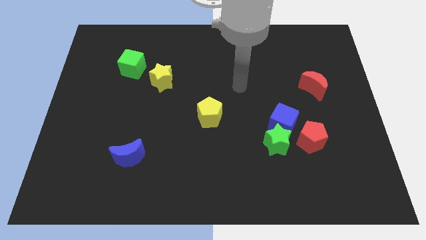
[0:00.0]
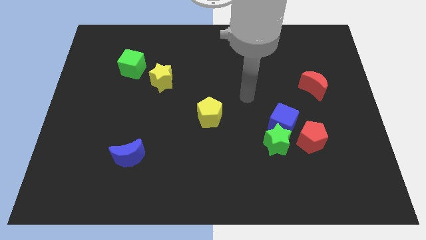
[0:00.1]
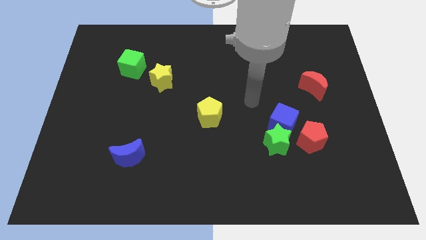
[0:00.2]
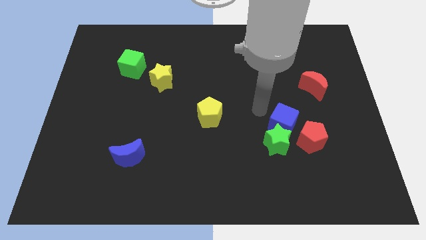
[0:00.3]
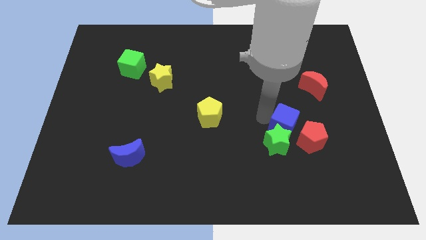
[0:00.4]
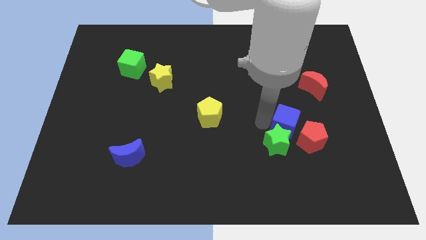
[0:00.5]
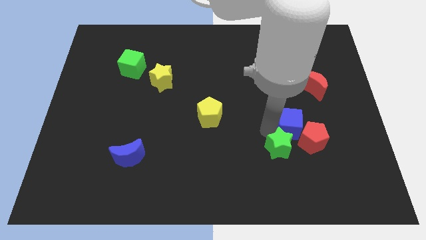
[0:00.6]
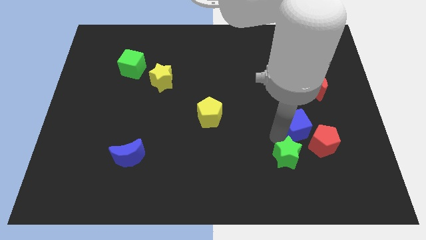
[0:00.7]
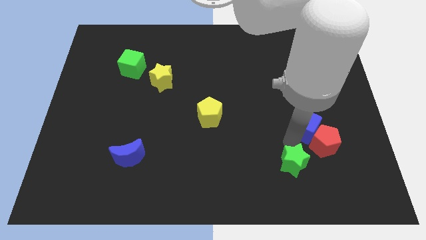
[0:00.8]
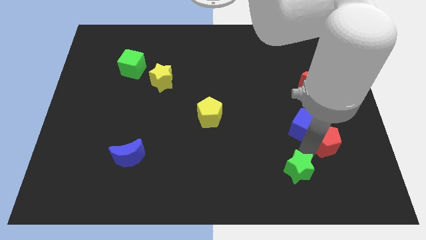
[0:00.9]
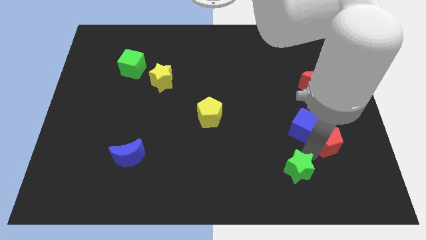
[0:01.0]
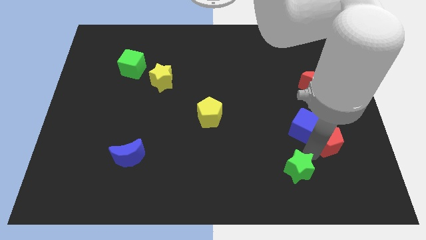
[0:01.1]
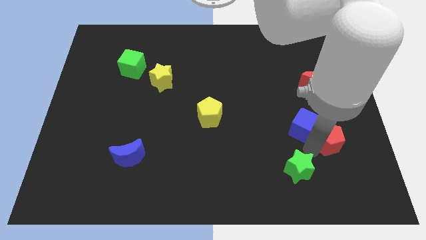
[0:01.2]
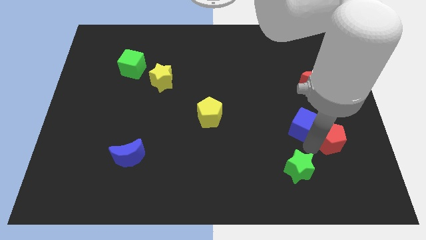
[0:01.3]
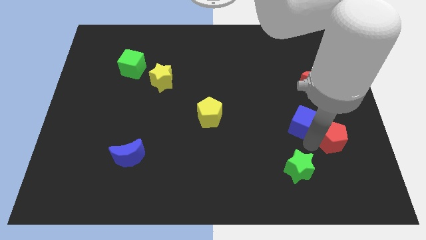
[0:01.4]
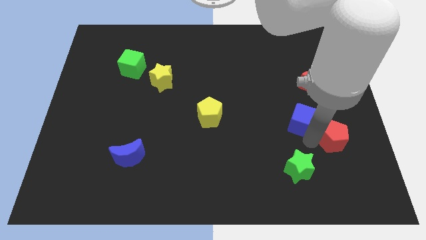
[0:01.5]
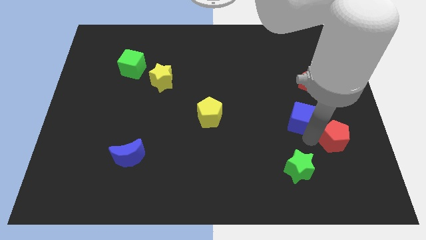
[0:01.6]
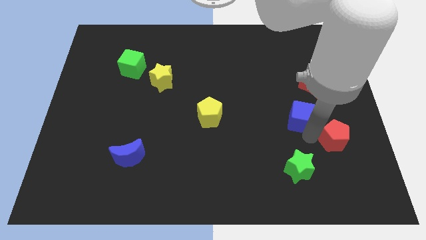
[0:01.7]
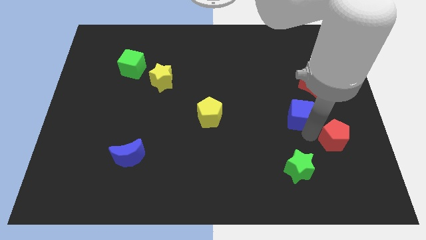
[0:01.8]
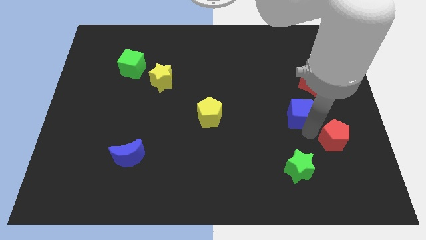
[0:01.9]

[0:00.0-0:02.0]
separate the blue cube from the green star and red pentagon

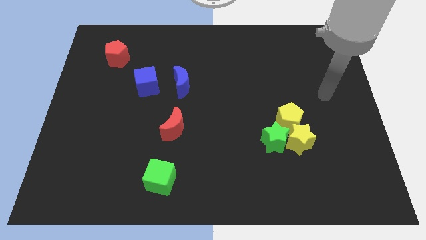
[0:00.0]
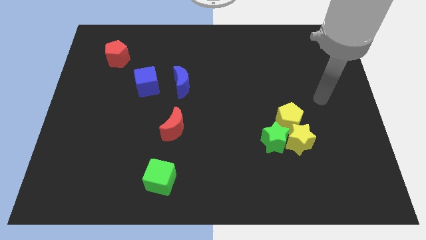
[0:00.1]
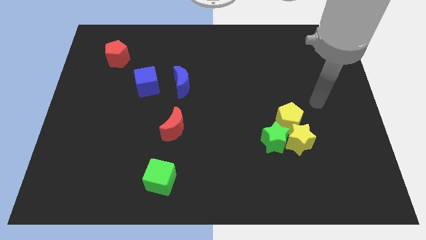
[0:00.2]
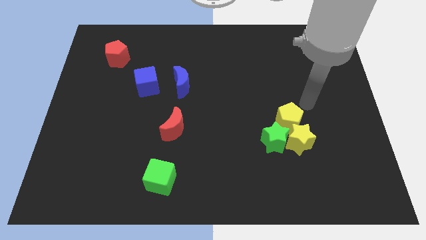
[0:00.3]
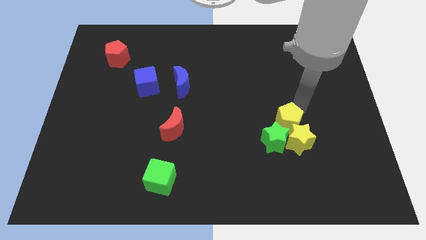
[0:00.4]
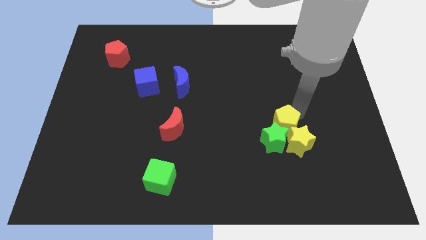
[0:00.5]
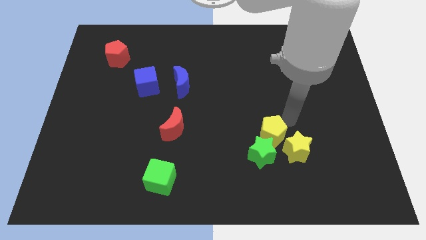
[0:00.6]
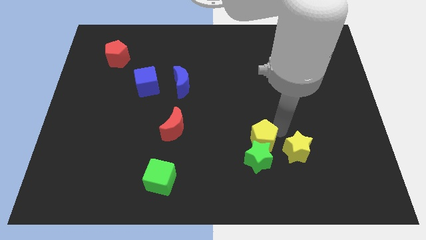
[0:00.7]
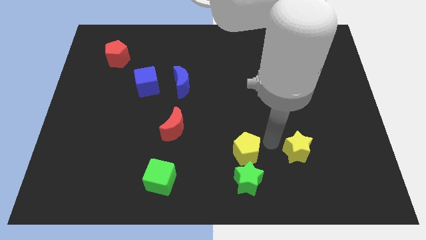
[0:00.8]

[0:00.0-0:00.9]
pull the yellow star apart from the green star and yellow pentagon

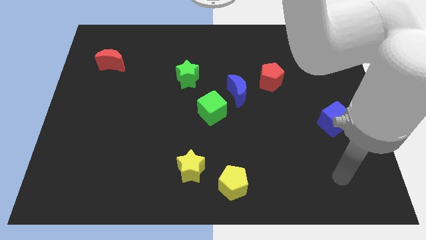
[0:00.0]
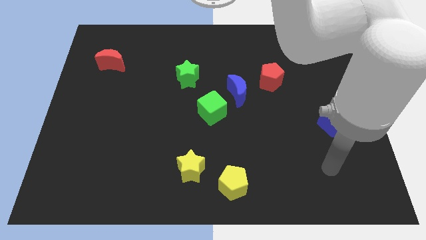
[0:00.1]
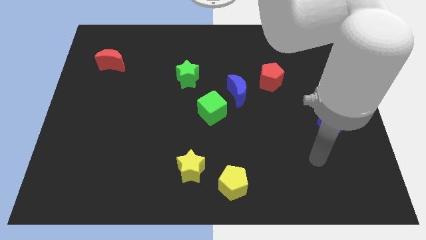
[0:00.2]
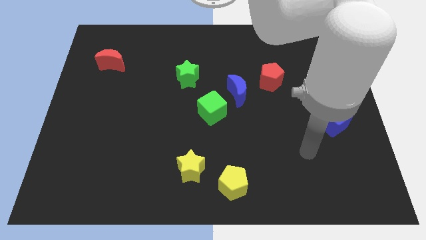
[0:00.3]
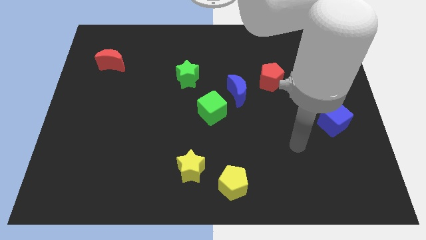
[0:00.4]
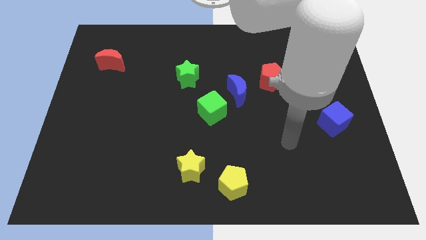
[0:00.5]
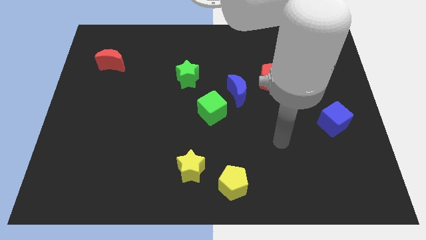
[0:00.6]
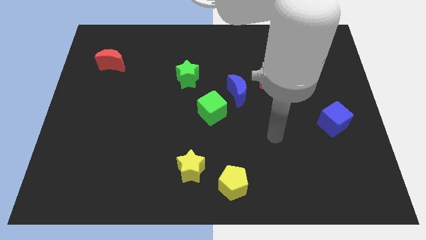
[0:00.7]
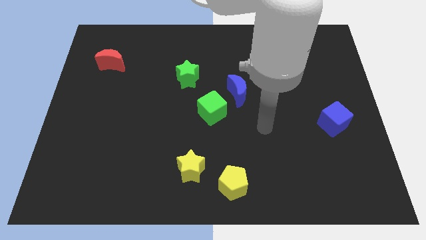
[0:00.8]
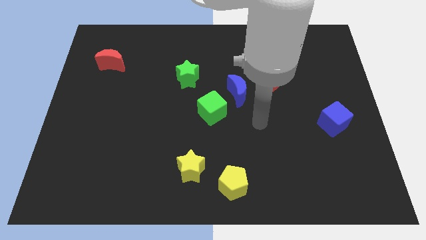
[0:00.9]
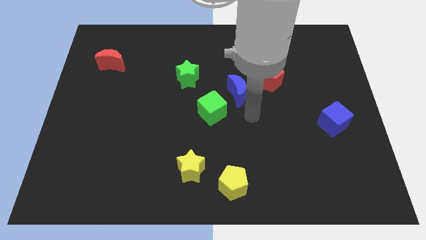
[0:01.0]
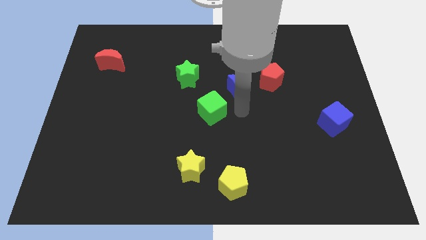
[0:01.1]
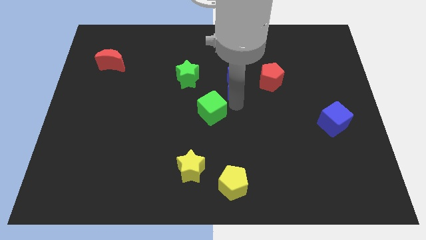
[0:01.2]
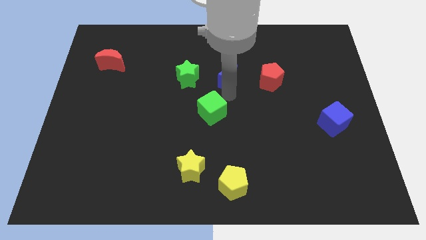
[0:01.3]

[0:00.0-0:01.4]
pull the green cube apart from the blue moon

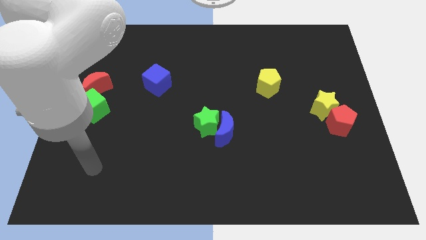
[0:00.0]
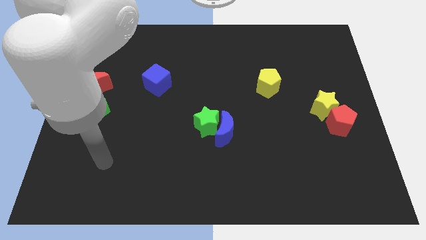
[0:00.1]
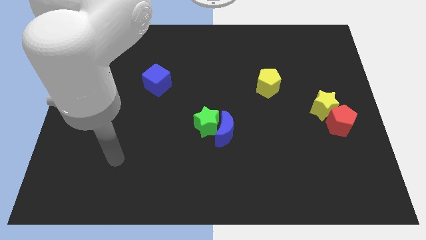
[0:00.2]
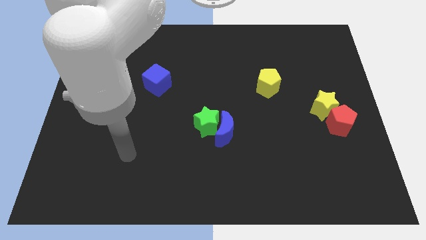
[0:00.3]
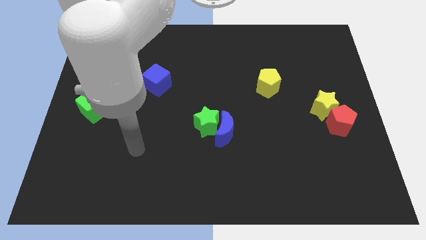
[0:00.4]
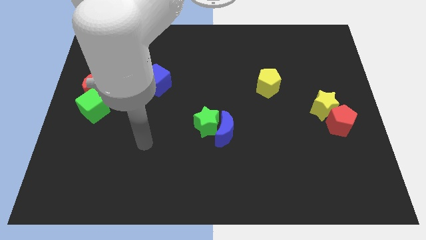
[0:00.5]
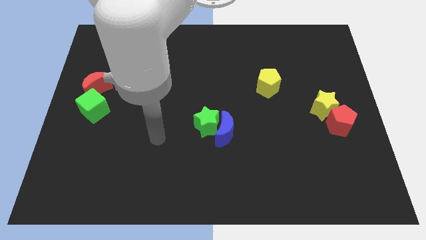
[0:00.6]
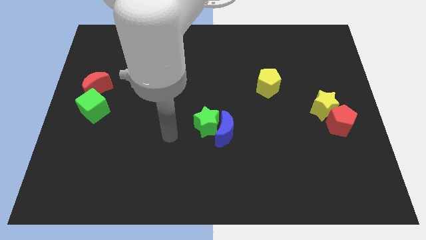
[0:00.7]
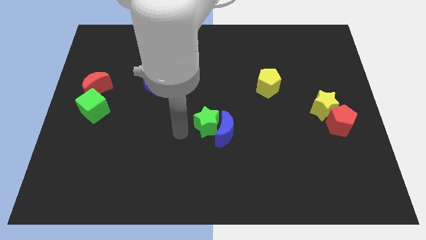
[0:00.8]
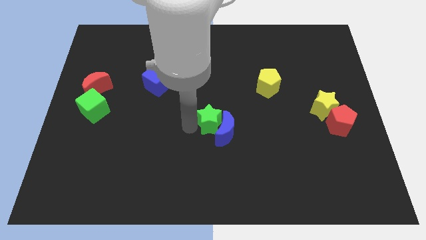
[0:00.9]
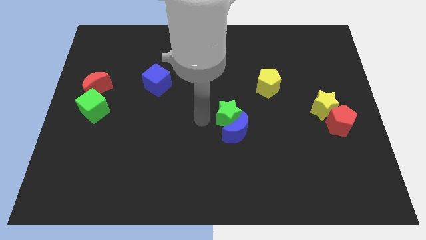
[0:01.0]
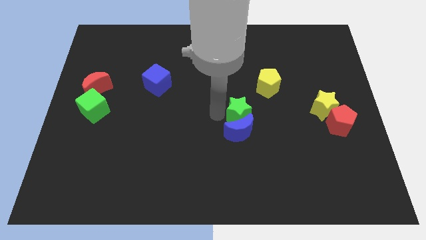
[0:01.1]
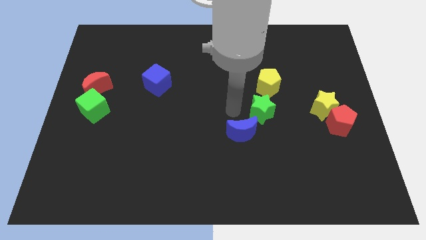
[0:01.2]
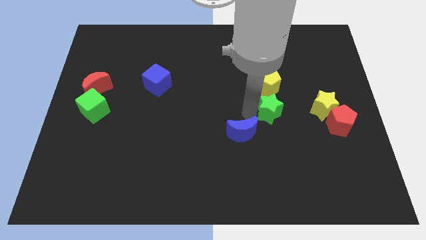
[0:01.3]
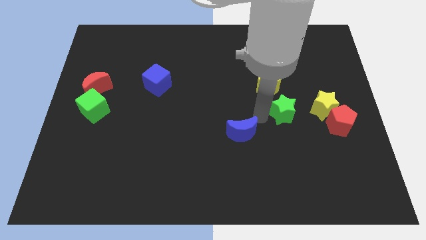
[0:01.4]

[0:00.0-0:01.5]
move the blue moon away from the green star

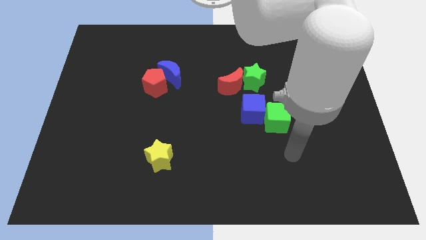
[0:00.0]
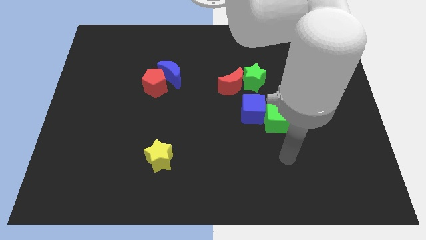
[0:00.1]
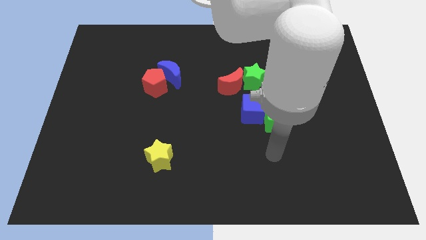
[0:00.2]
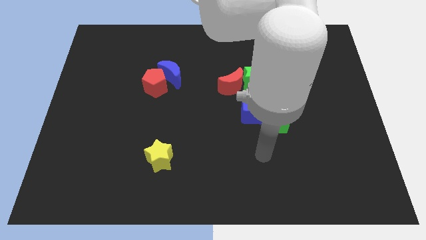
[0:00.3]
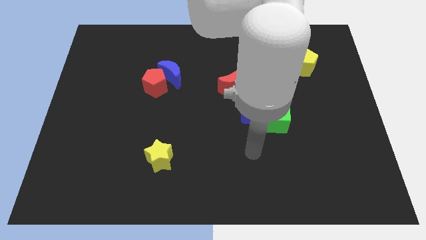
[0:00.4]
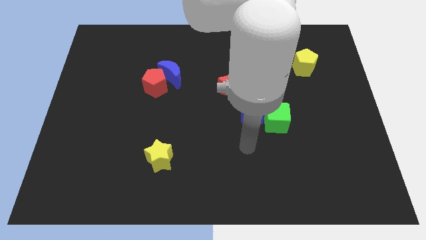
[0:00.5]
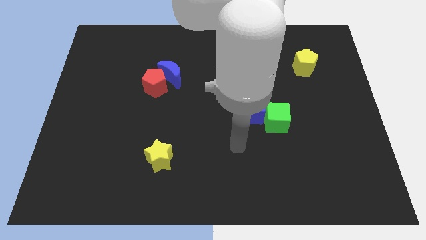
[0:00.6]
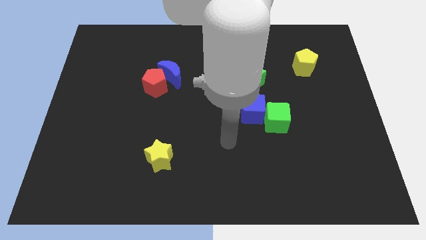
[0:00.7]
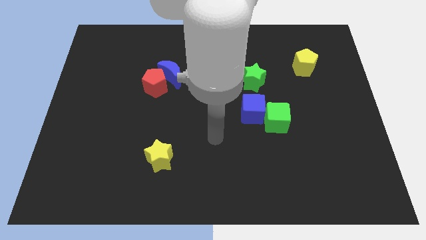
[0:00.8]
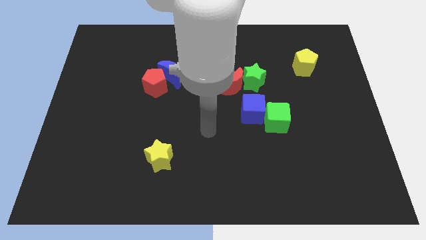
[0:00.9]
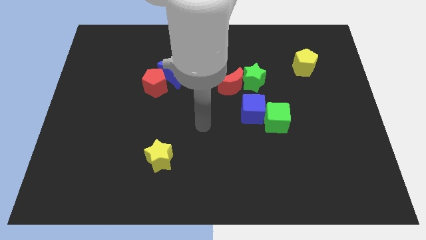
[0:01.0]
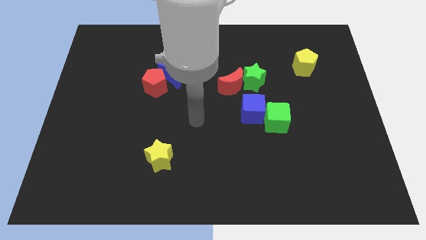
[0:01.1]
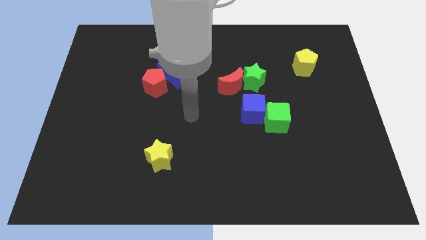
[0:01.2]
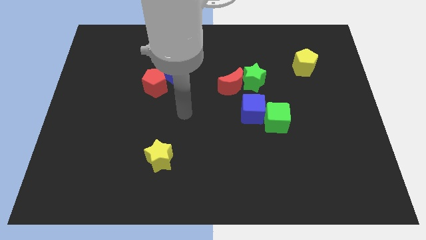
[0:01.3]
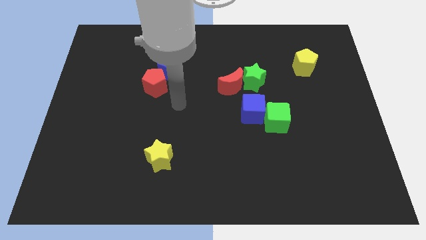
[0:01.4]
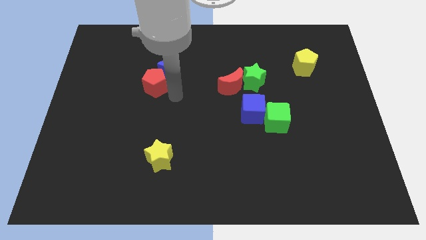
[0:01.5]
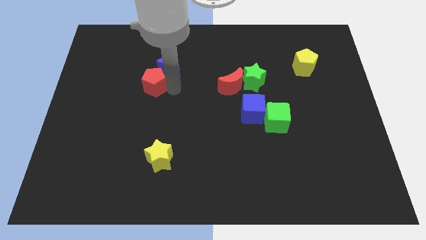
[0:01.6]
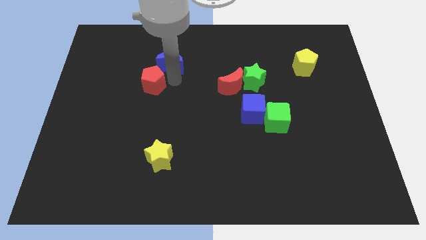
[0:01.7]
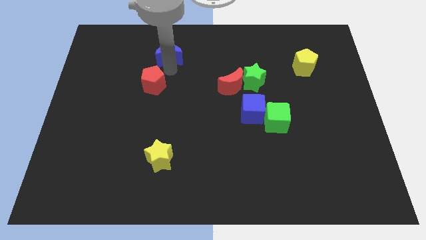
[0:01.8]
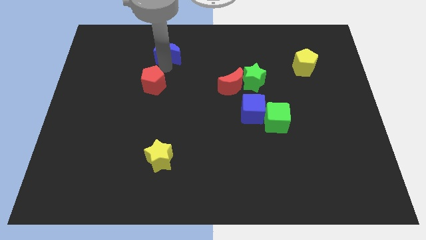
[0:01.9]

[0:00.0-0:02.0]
move the red pentagon away from the blue moon

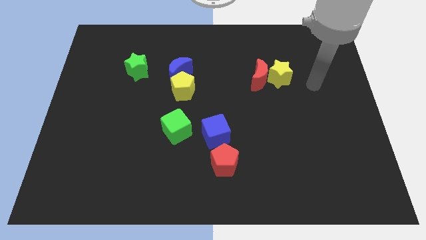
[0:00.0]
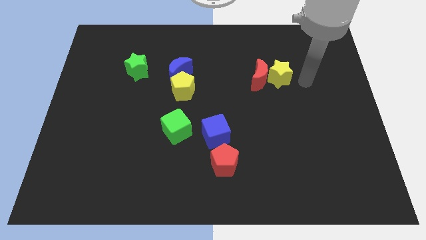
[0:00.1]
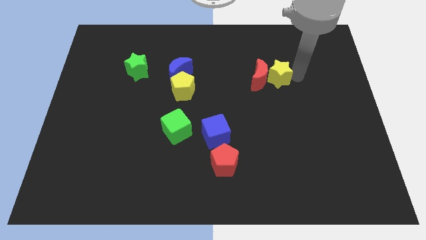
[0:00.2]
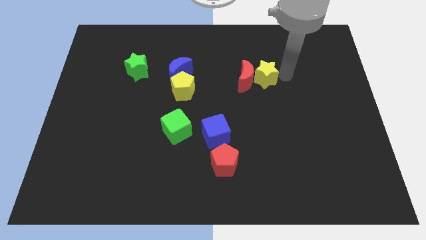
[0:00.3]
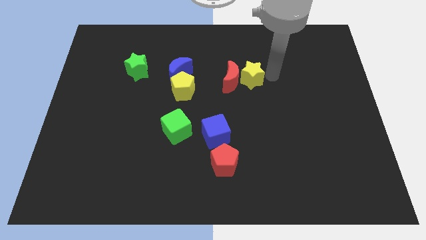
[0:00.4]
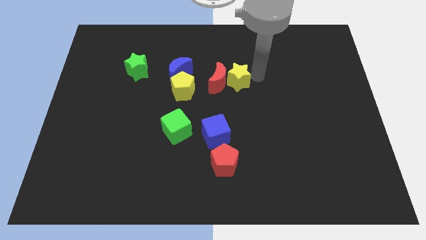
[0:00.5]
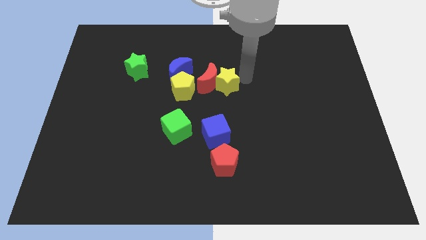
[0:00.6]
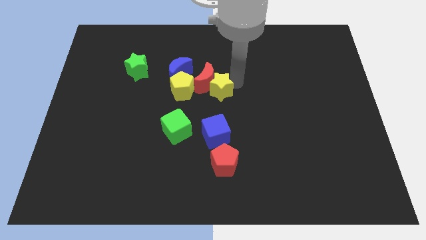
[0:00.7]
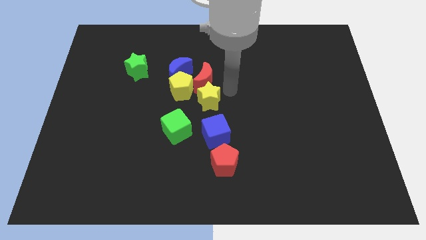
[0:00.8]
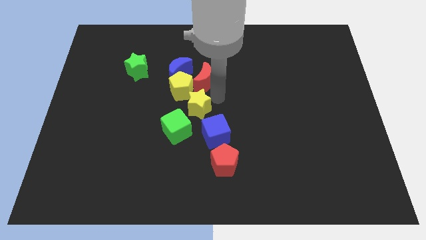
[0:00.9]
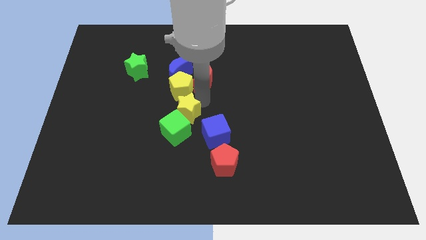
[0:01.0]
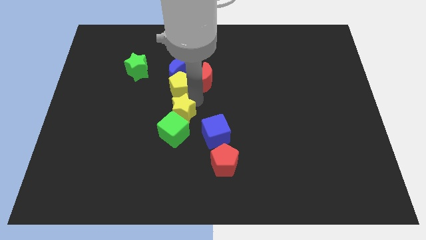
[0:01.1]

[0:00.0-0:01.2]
move the red moon away from the yellow star

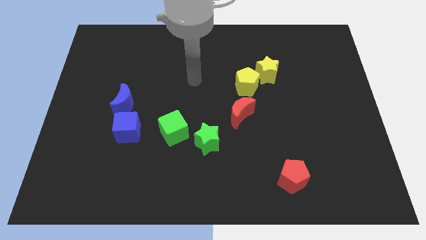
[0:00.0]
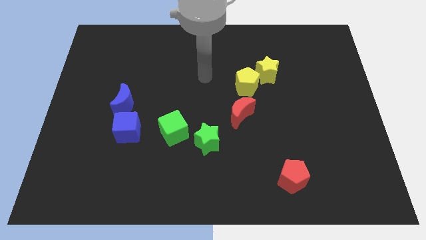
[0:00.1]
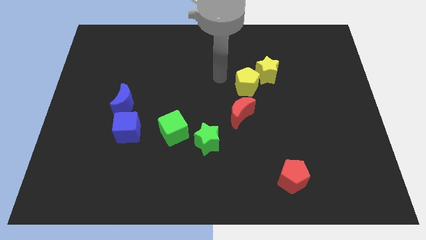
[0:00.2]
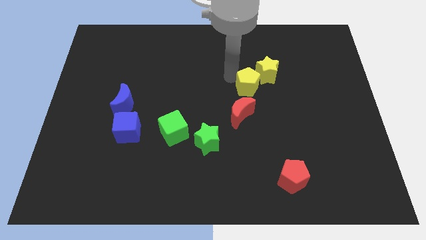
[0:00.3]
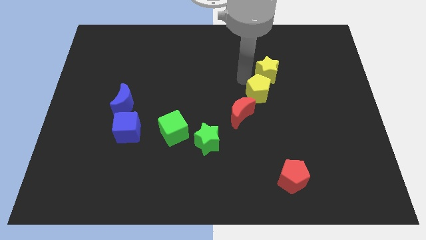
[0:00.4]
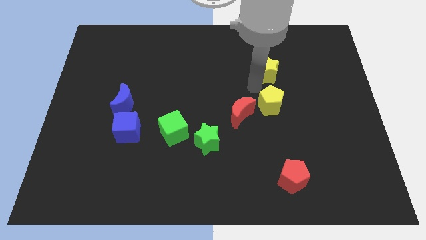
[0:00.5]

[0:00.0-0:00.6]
move the yellow star away from the yellow pentagon
